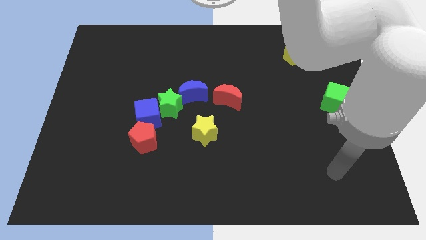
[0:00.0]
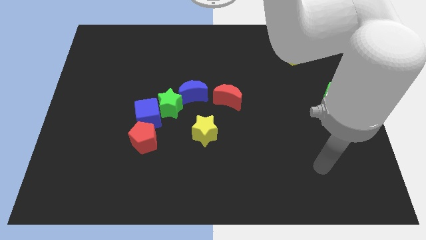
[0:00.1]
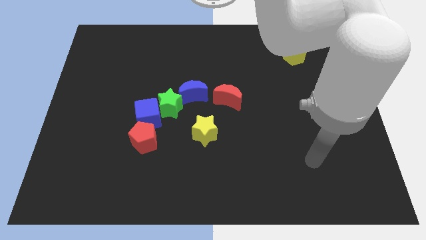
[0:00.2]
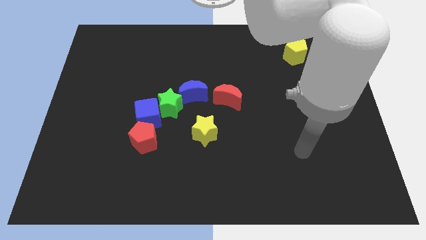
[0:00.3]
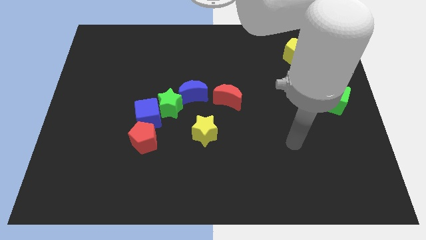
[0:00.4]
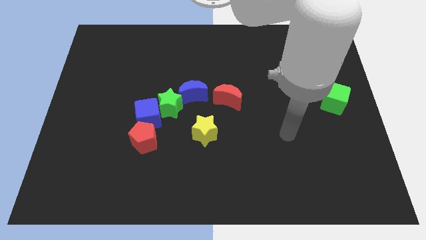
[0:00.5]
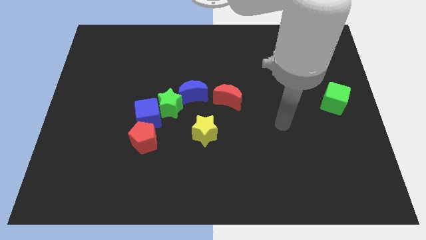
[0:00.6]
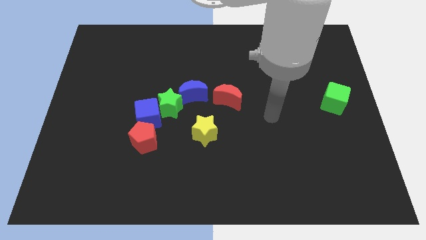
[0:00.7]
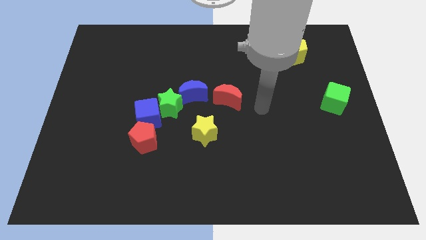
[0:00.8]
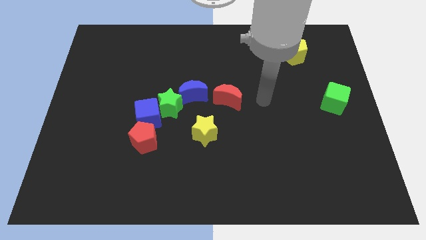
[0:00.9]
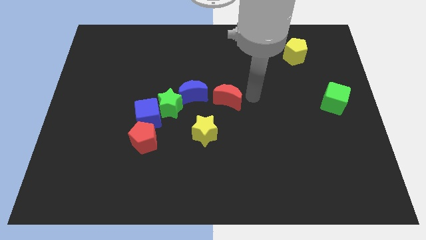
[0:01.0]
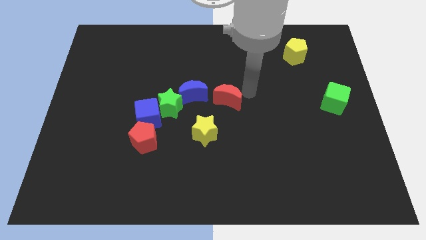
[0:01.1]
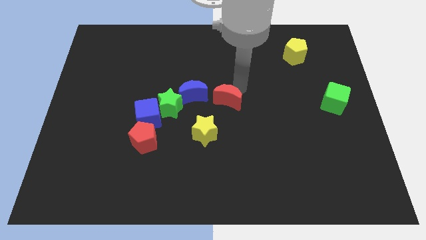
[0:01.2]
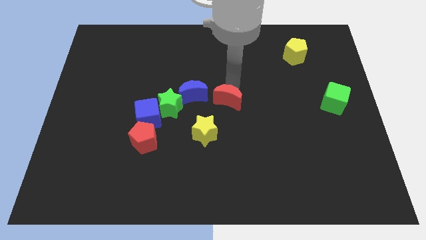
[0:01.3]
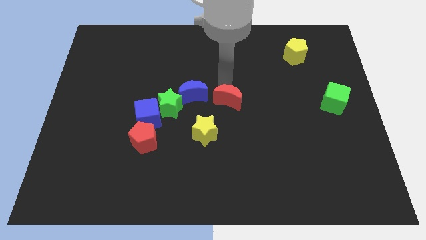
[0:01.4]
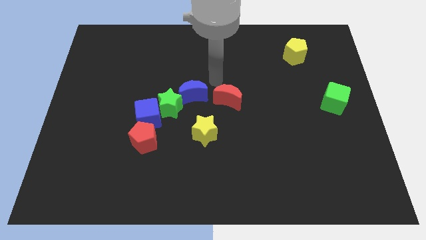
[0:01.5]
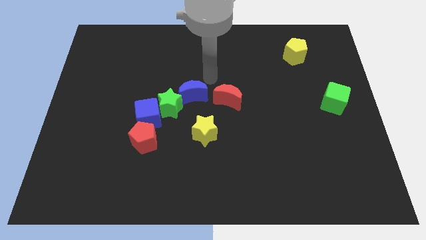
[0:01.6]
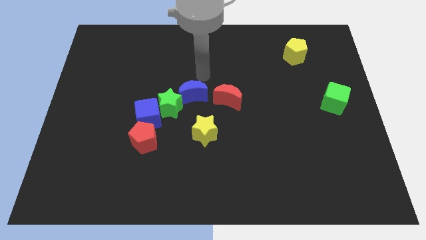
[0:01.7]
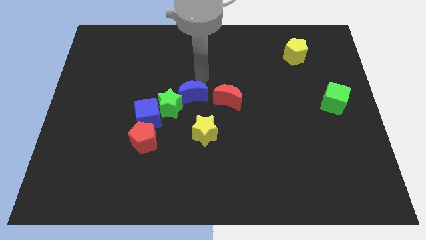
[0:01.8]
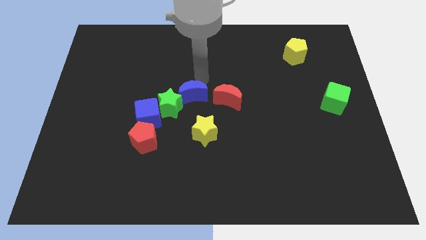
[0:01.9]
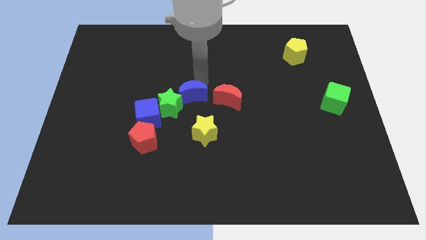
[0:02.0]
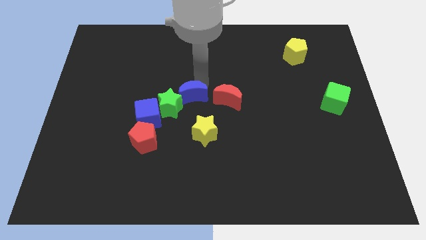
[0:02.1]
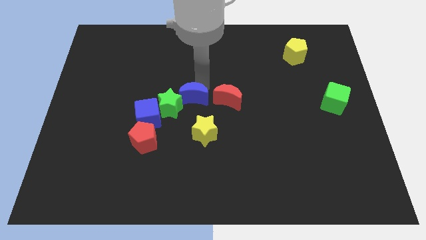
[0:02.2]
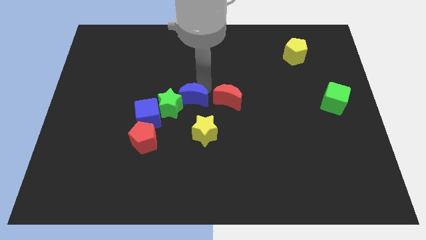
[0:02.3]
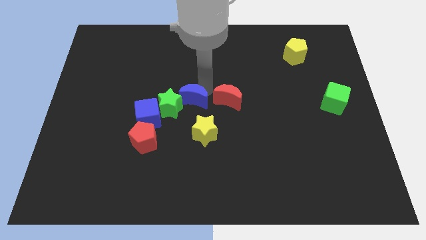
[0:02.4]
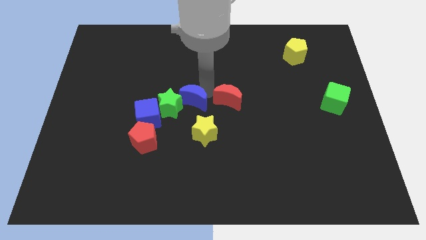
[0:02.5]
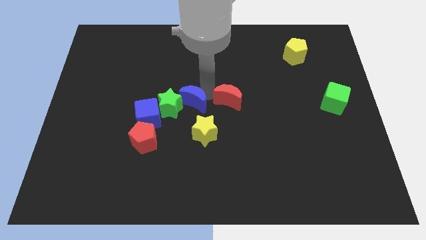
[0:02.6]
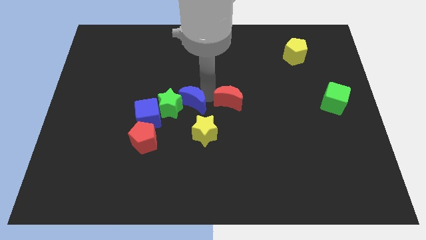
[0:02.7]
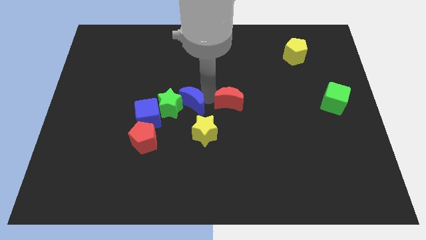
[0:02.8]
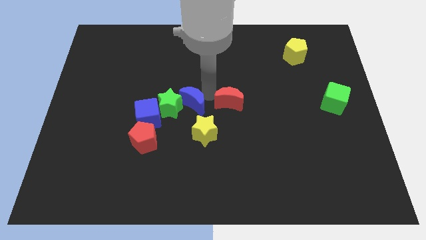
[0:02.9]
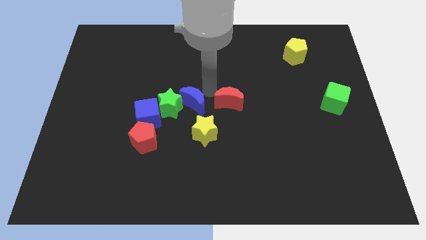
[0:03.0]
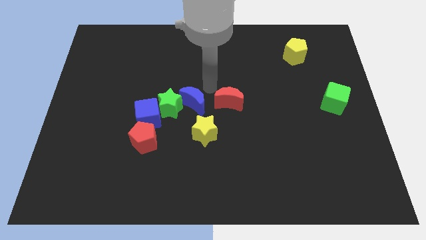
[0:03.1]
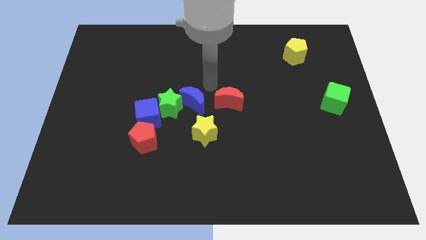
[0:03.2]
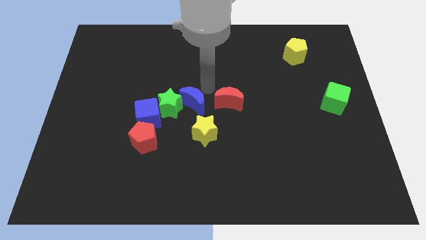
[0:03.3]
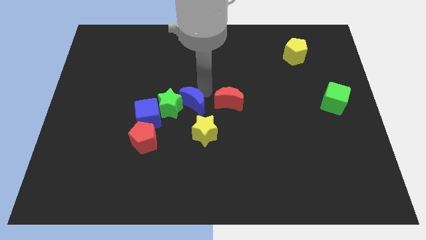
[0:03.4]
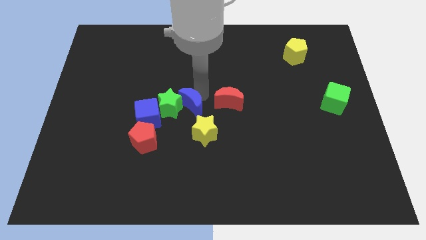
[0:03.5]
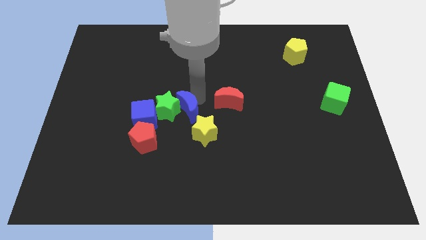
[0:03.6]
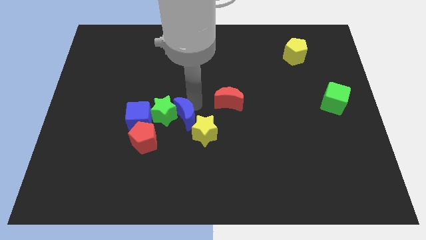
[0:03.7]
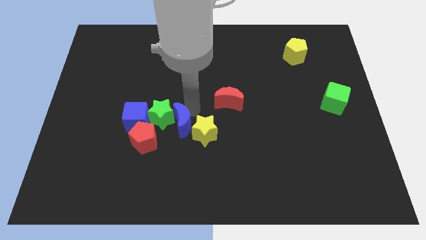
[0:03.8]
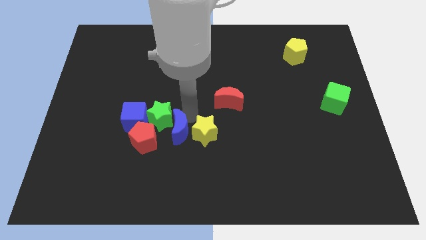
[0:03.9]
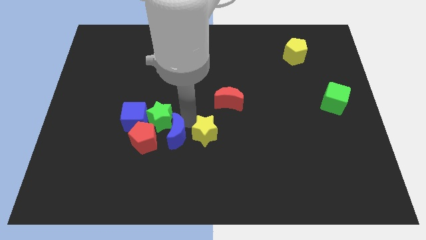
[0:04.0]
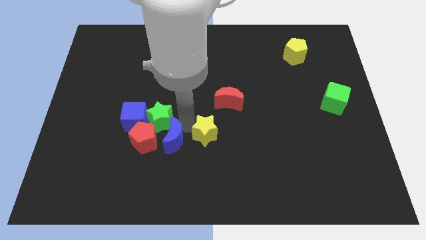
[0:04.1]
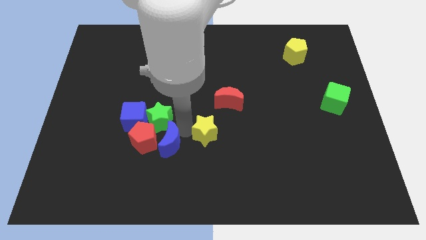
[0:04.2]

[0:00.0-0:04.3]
put the blue moon next to the red pentagon

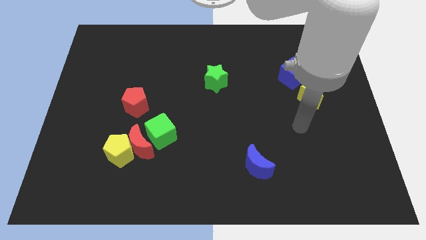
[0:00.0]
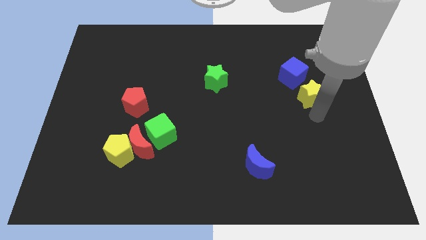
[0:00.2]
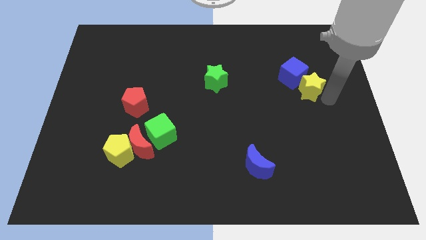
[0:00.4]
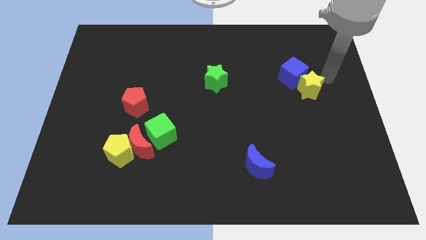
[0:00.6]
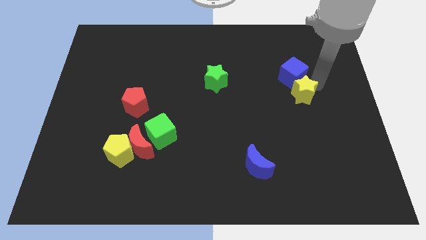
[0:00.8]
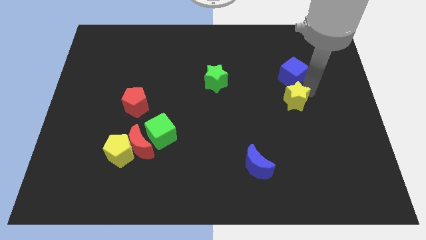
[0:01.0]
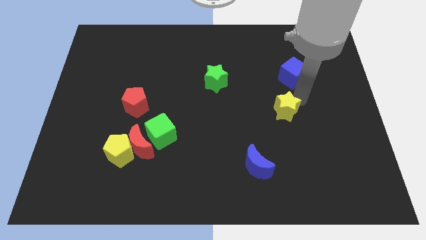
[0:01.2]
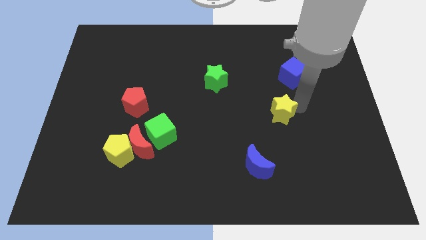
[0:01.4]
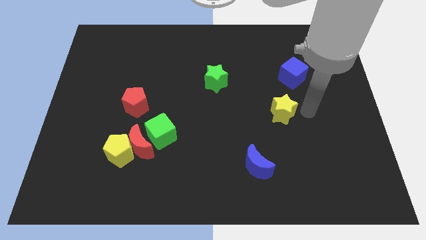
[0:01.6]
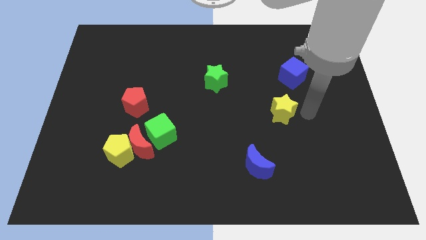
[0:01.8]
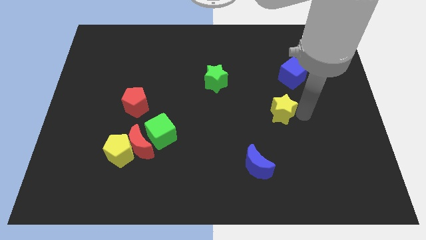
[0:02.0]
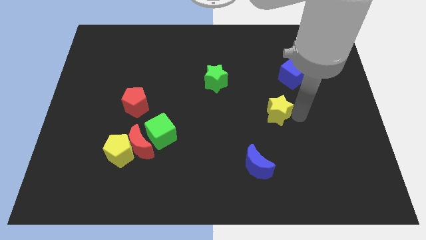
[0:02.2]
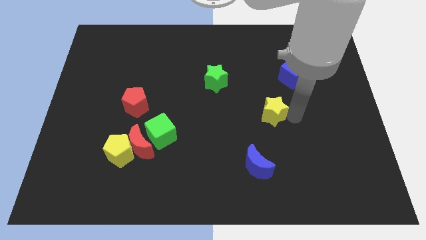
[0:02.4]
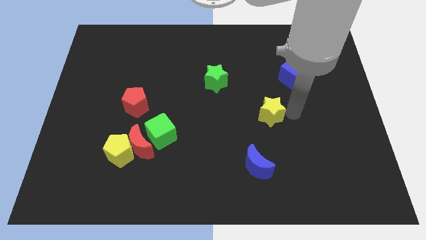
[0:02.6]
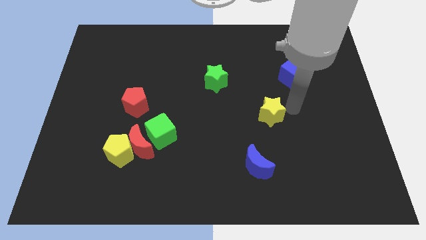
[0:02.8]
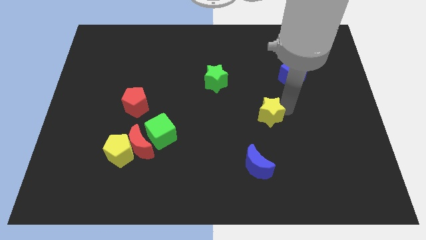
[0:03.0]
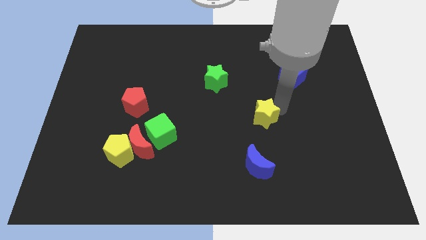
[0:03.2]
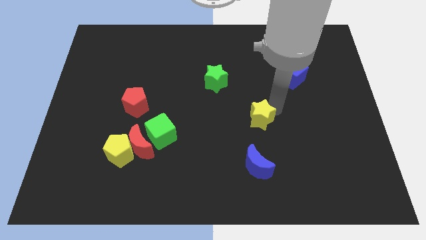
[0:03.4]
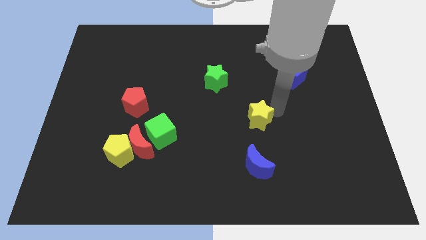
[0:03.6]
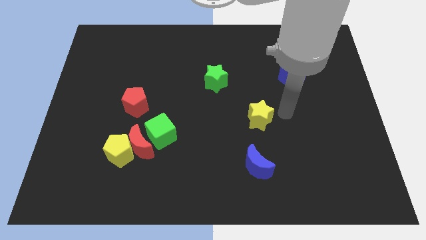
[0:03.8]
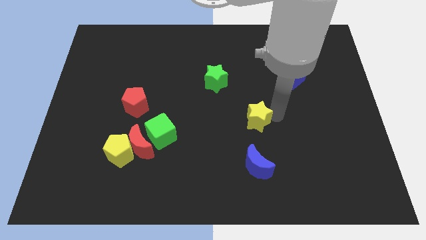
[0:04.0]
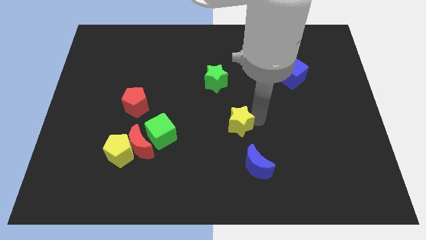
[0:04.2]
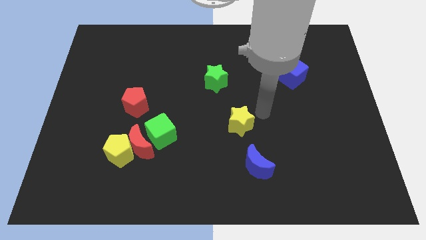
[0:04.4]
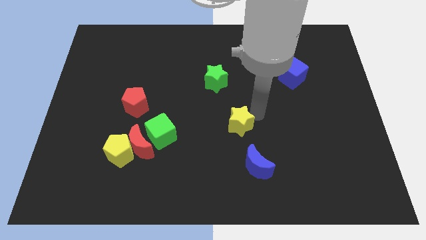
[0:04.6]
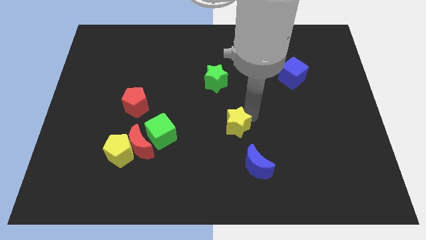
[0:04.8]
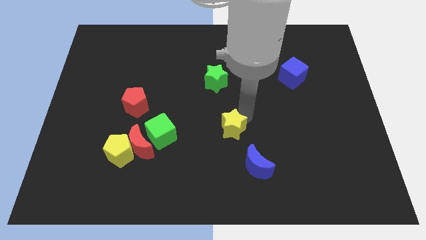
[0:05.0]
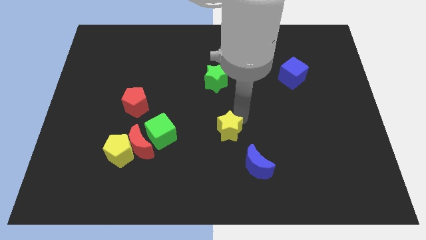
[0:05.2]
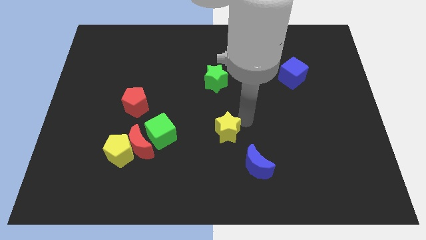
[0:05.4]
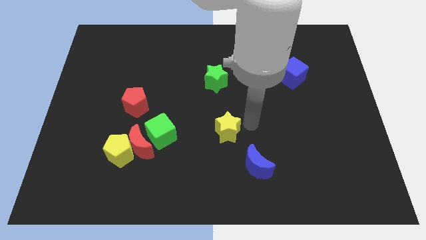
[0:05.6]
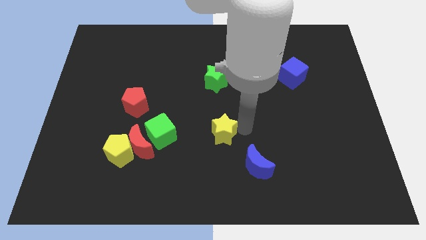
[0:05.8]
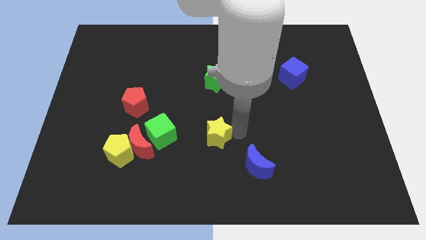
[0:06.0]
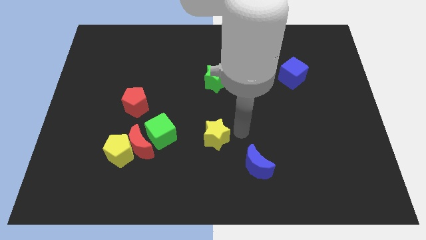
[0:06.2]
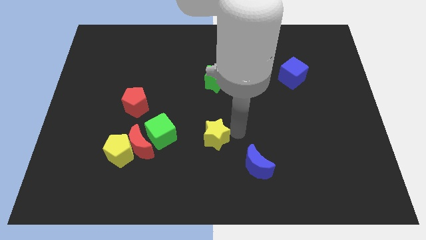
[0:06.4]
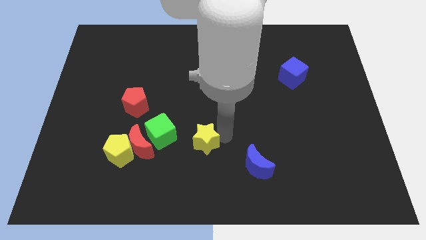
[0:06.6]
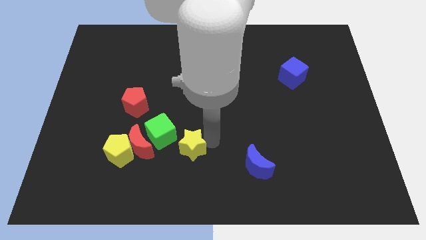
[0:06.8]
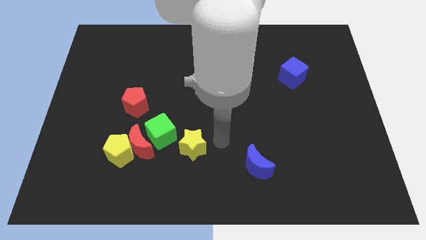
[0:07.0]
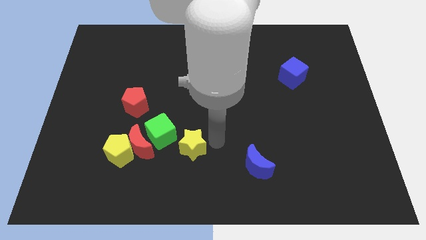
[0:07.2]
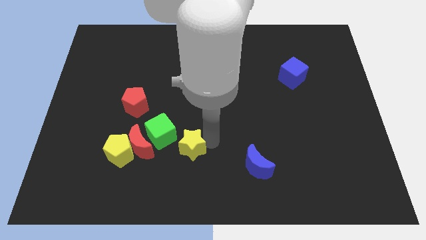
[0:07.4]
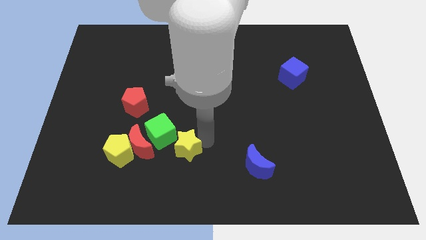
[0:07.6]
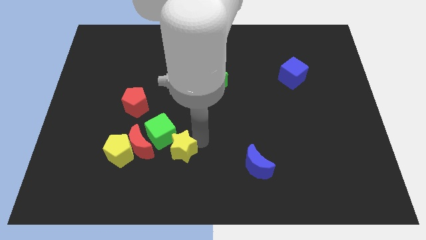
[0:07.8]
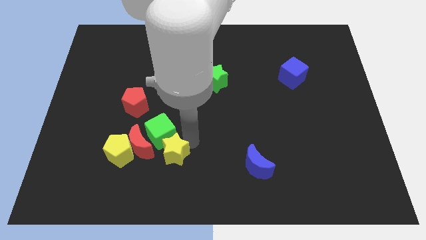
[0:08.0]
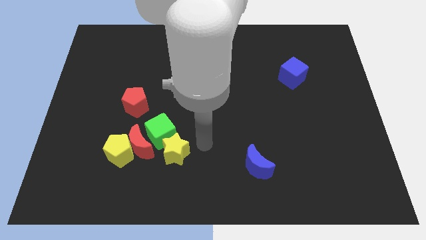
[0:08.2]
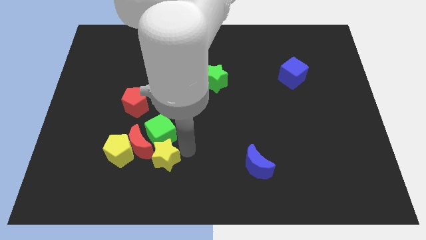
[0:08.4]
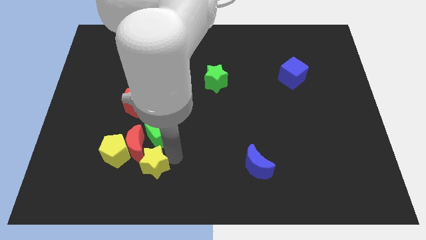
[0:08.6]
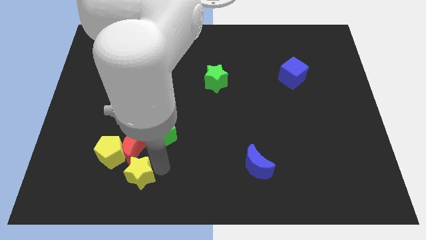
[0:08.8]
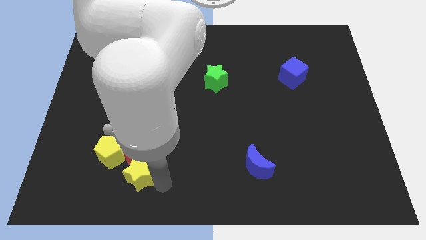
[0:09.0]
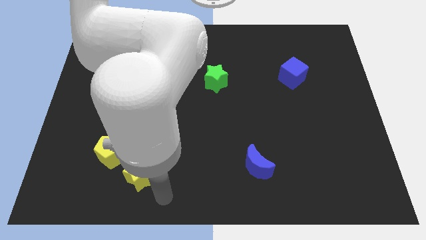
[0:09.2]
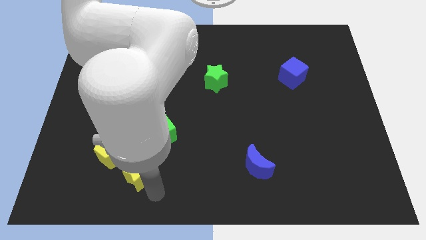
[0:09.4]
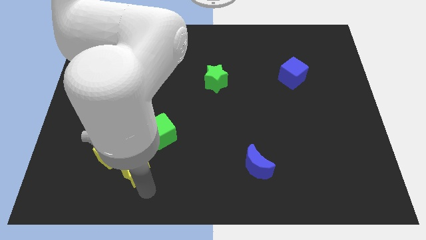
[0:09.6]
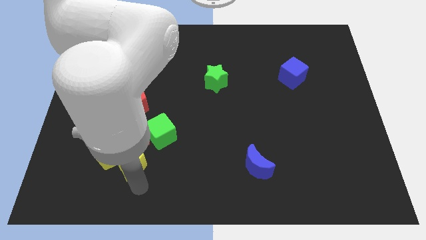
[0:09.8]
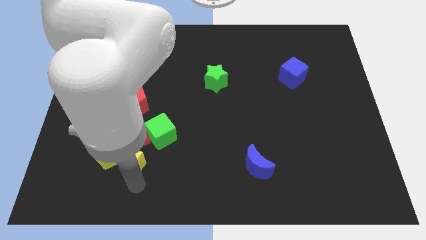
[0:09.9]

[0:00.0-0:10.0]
push the yellow star close to the yellow pentagon
